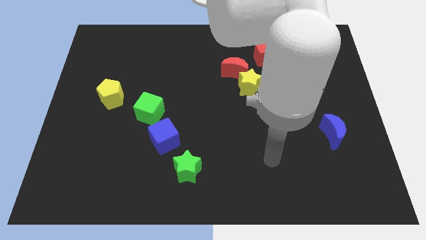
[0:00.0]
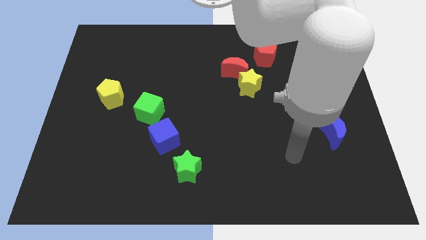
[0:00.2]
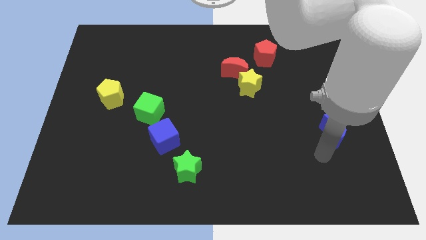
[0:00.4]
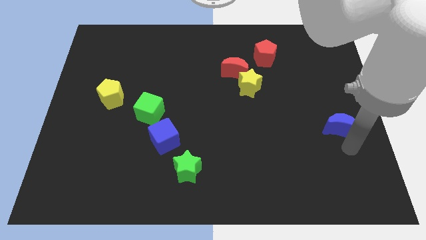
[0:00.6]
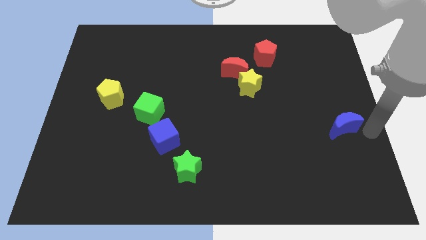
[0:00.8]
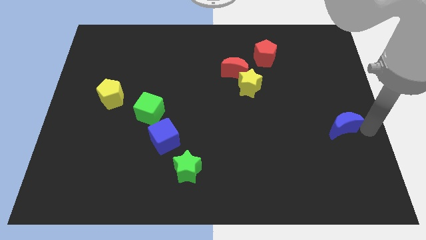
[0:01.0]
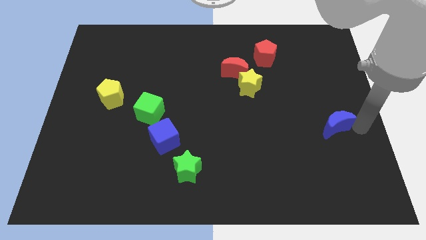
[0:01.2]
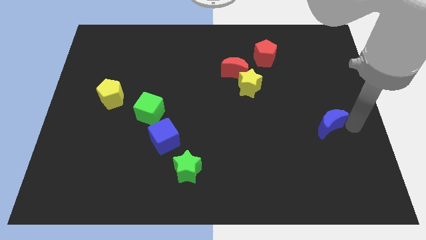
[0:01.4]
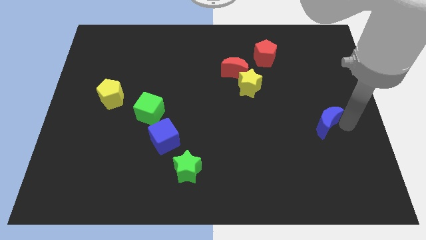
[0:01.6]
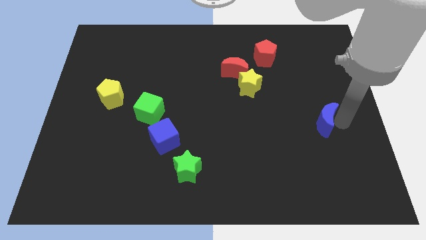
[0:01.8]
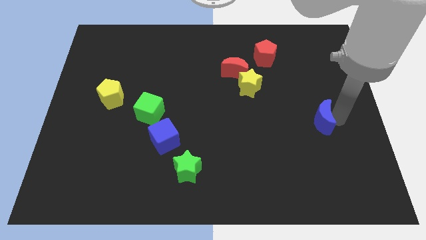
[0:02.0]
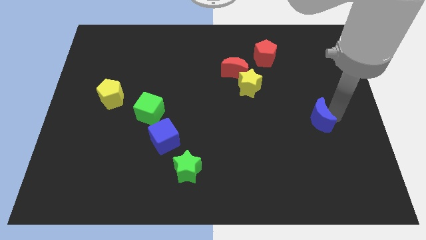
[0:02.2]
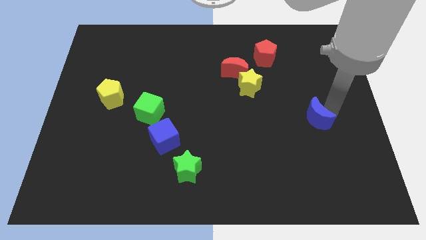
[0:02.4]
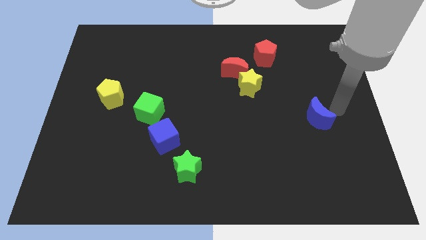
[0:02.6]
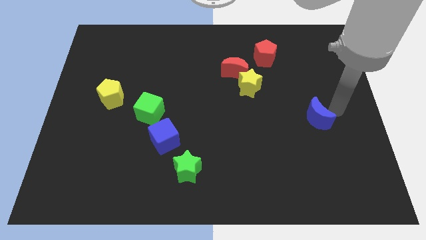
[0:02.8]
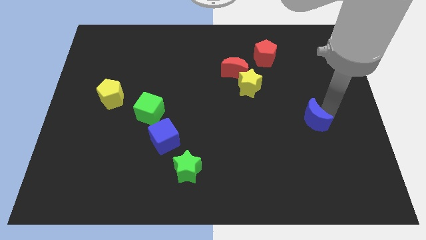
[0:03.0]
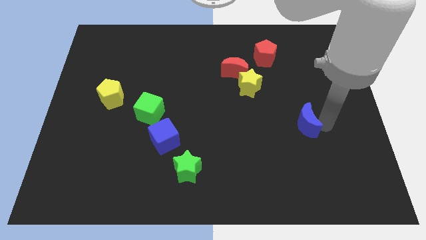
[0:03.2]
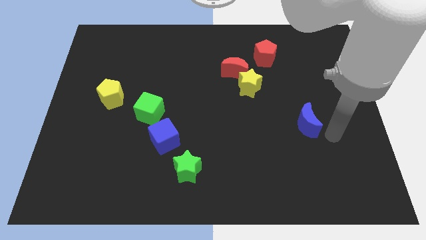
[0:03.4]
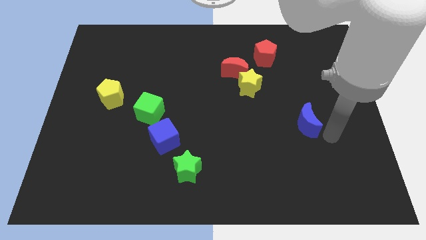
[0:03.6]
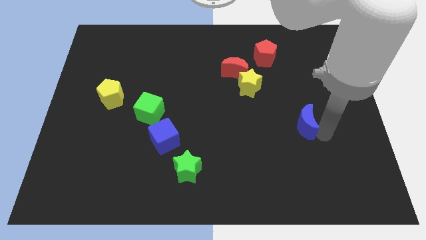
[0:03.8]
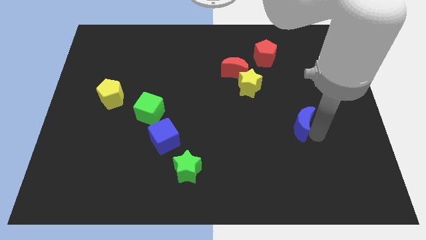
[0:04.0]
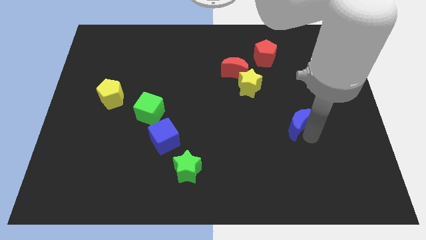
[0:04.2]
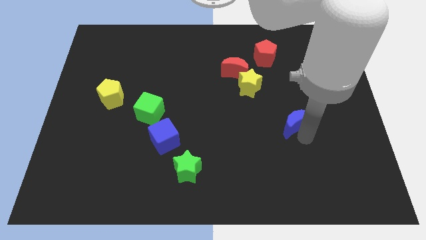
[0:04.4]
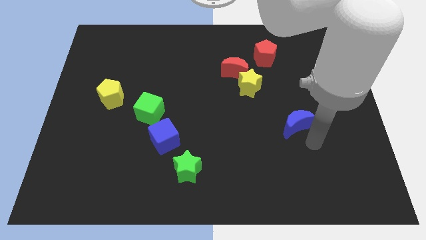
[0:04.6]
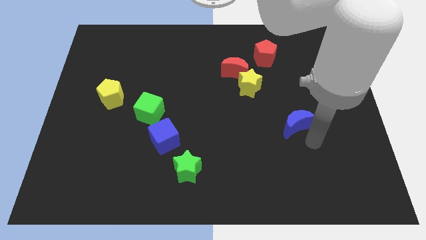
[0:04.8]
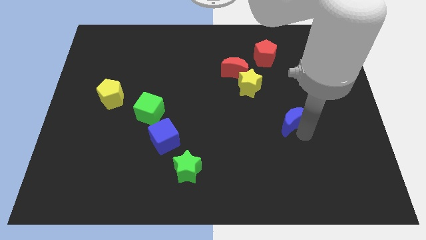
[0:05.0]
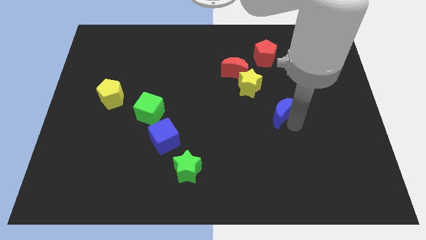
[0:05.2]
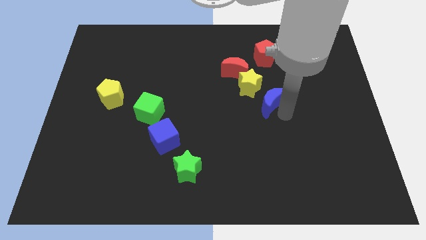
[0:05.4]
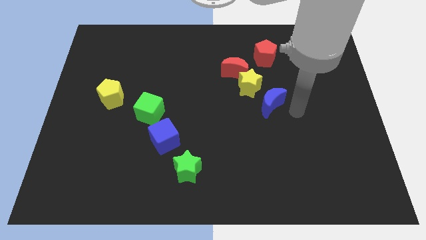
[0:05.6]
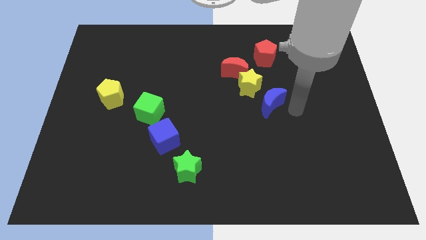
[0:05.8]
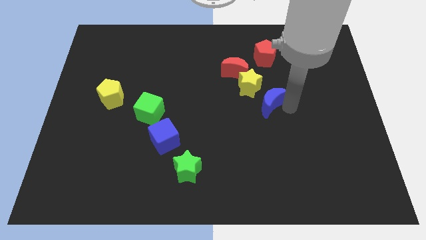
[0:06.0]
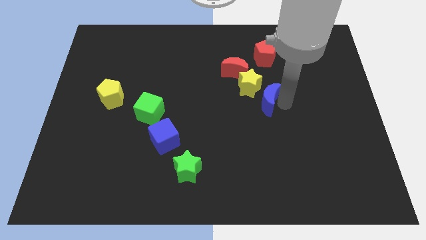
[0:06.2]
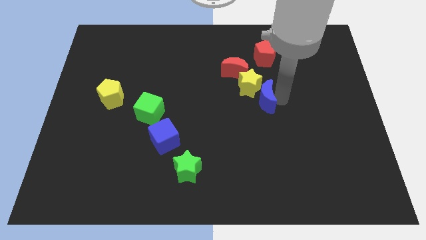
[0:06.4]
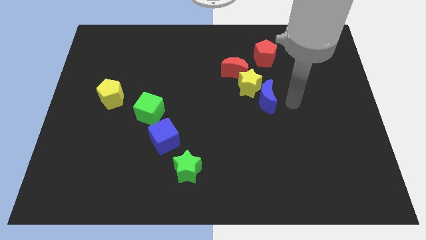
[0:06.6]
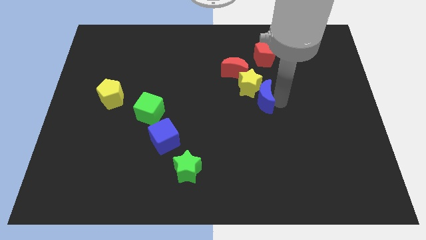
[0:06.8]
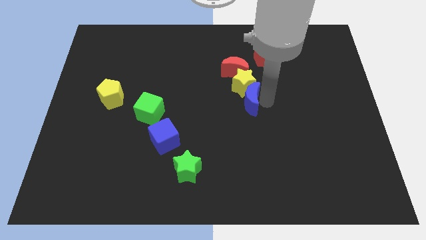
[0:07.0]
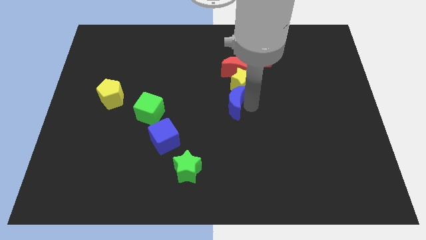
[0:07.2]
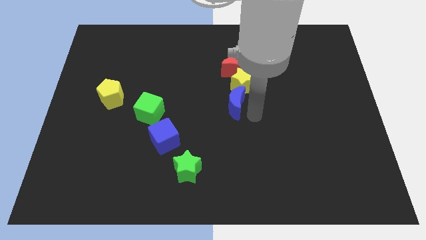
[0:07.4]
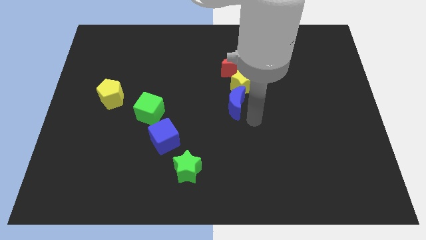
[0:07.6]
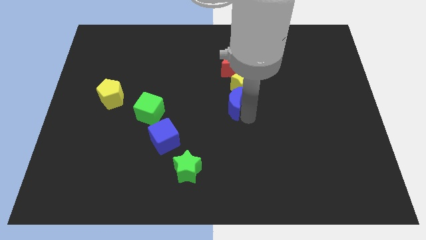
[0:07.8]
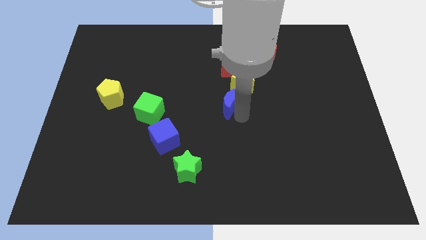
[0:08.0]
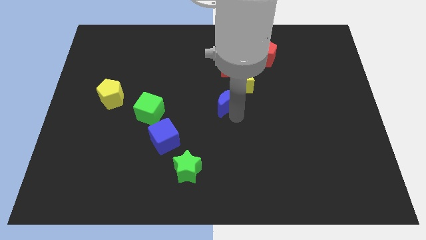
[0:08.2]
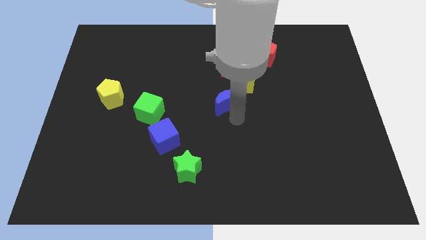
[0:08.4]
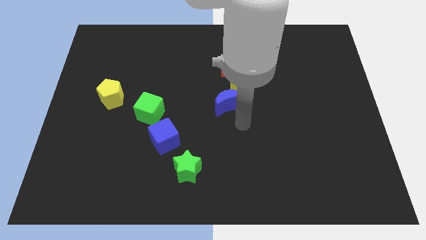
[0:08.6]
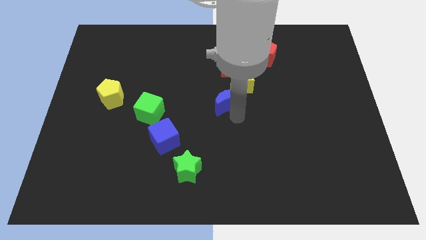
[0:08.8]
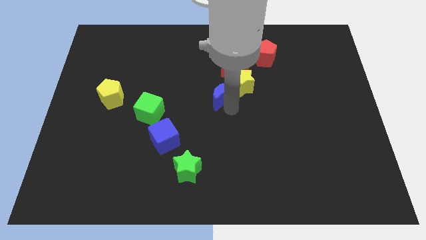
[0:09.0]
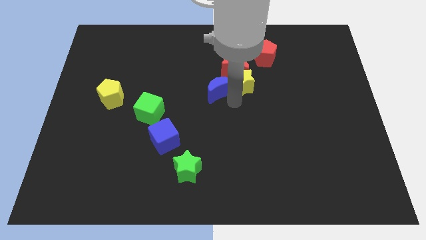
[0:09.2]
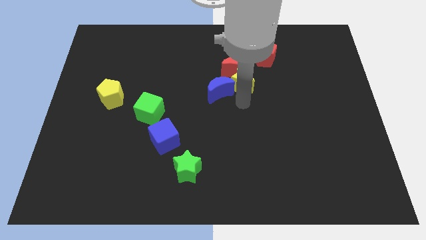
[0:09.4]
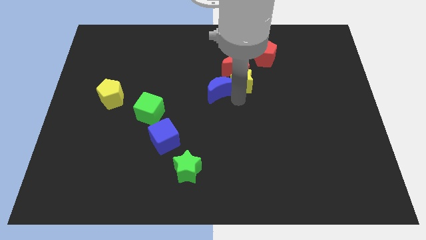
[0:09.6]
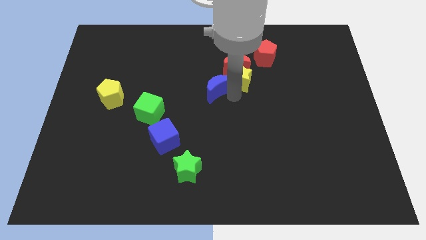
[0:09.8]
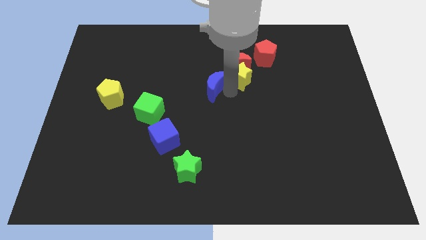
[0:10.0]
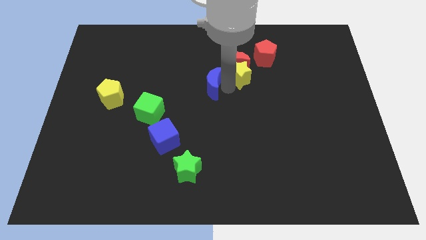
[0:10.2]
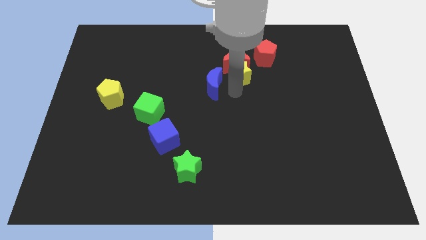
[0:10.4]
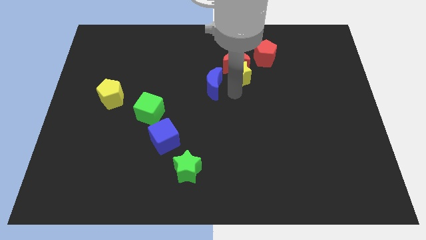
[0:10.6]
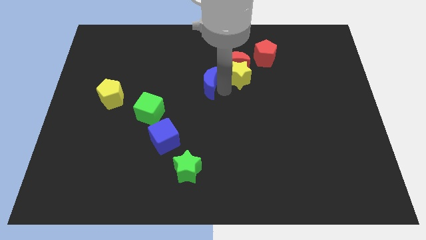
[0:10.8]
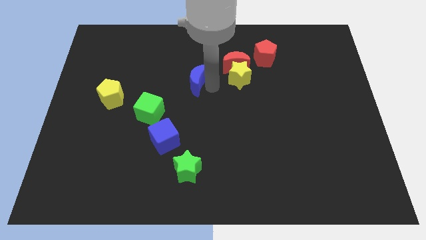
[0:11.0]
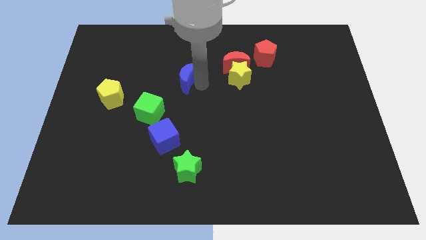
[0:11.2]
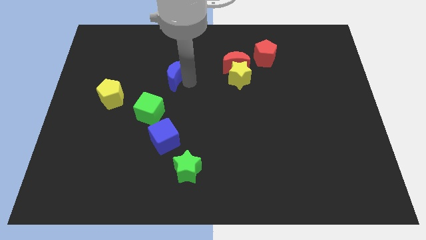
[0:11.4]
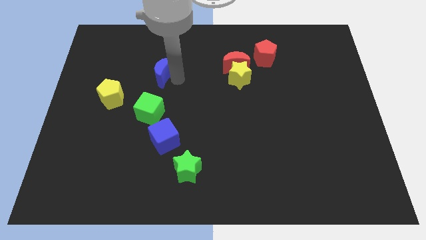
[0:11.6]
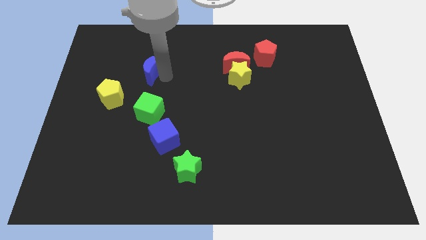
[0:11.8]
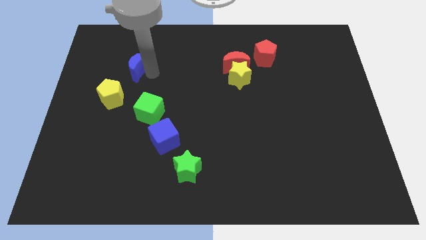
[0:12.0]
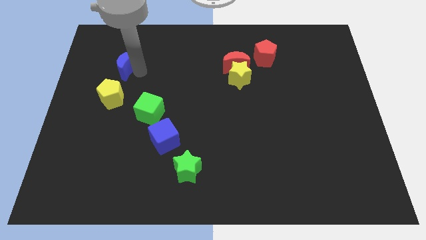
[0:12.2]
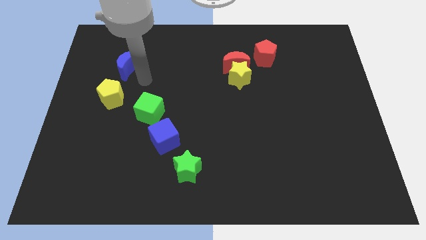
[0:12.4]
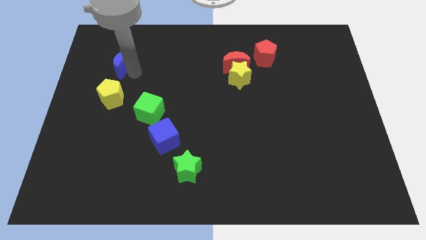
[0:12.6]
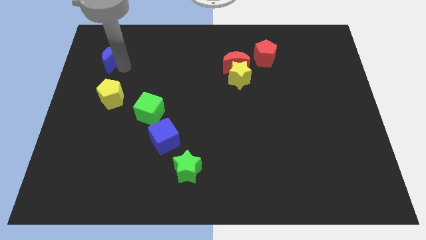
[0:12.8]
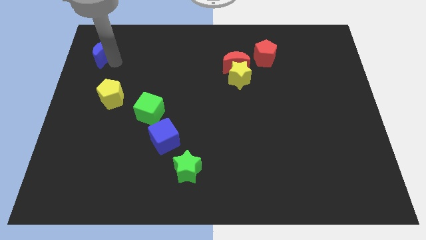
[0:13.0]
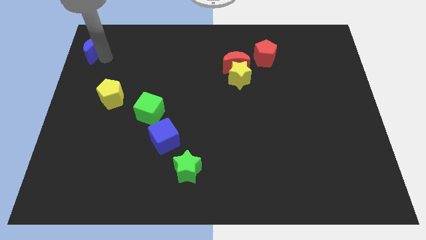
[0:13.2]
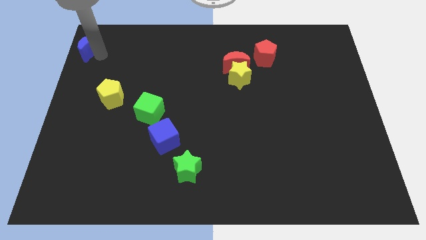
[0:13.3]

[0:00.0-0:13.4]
put the blue moon to the top left corner
